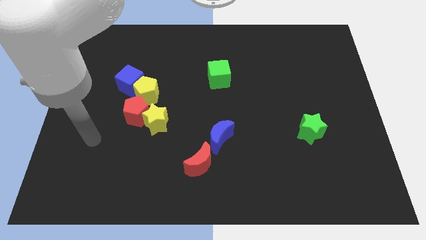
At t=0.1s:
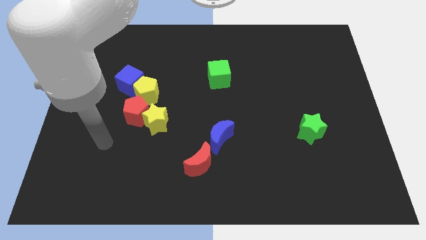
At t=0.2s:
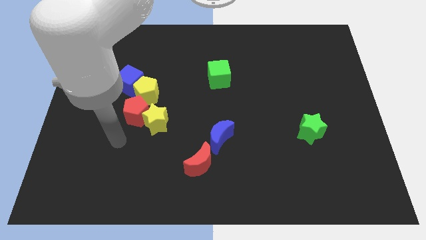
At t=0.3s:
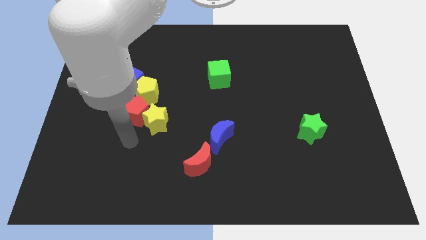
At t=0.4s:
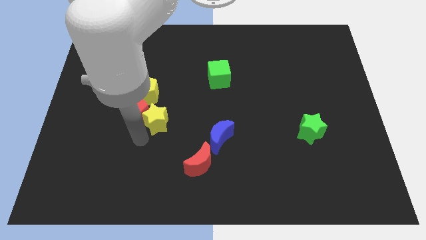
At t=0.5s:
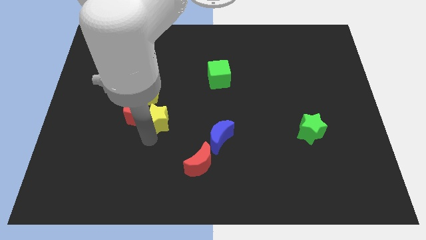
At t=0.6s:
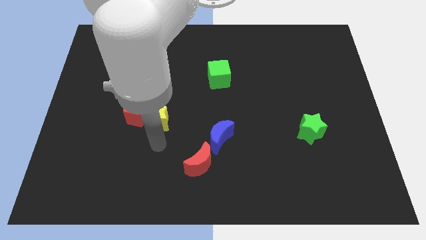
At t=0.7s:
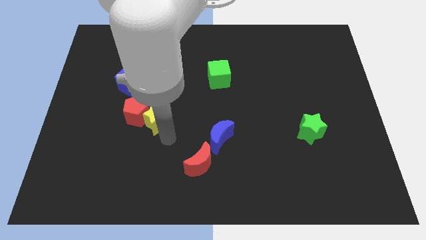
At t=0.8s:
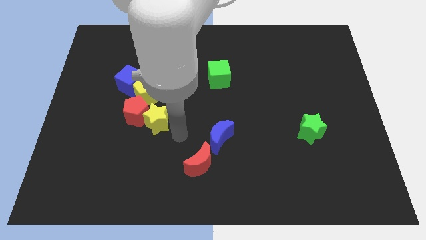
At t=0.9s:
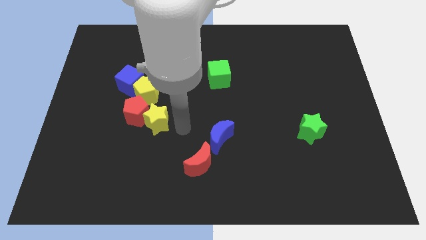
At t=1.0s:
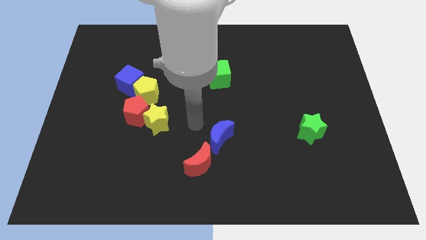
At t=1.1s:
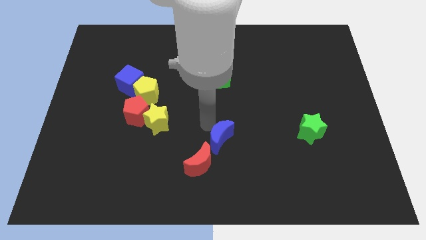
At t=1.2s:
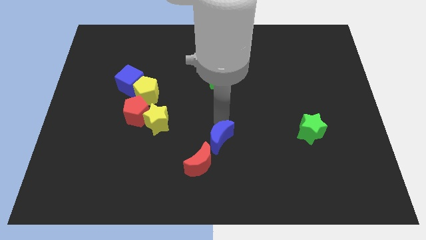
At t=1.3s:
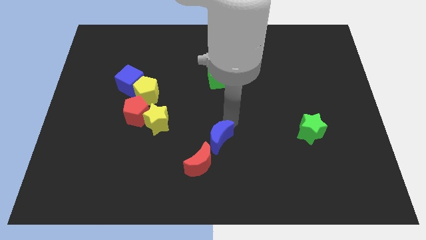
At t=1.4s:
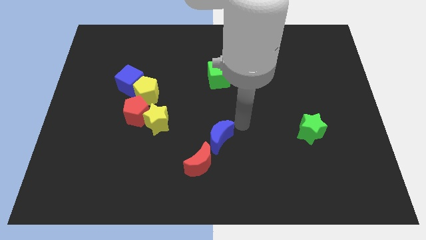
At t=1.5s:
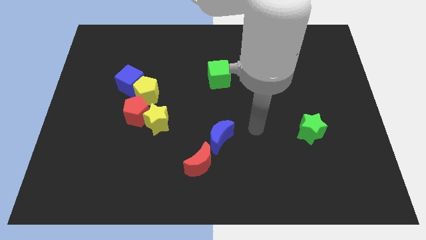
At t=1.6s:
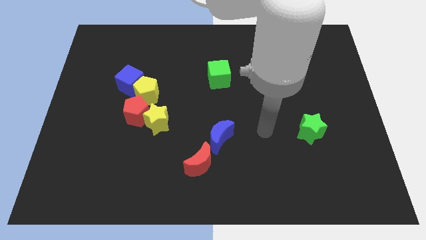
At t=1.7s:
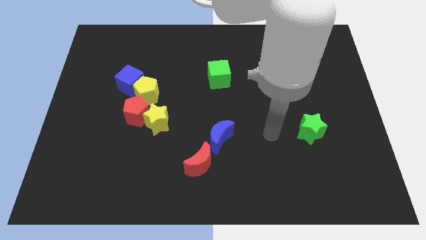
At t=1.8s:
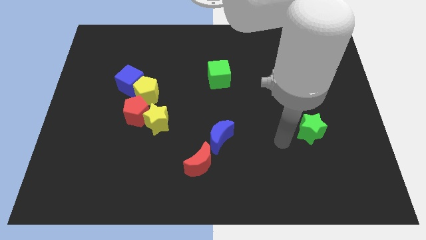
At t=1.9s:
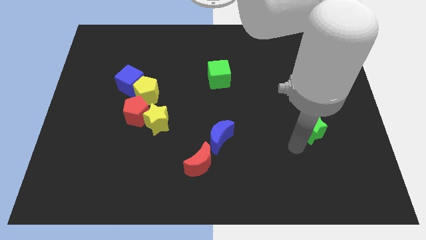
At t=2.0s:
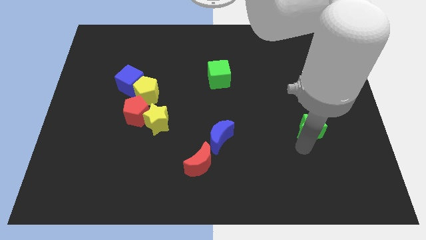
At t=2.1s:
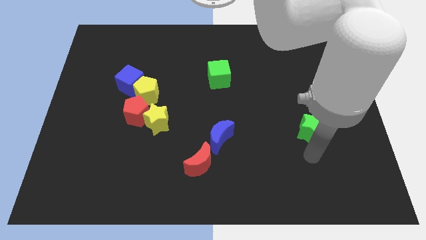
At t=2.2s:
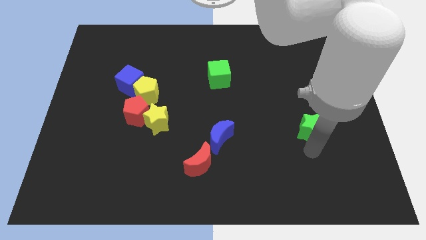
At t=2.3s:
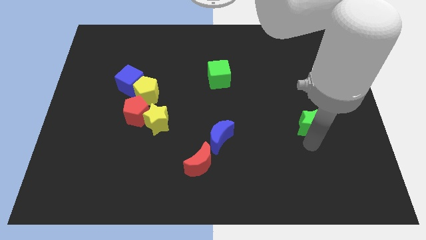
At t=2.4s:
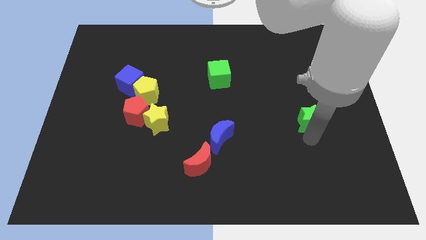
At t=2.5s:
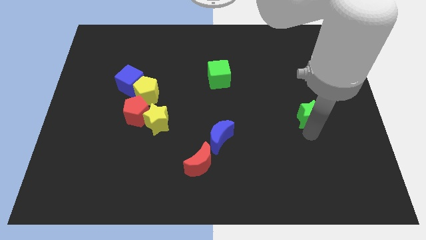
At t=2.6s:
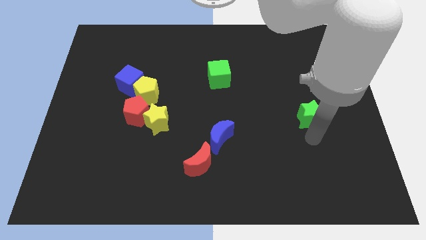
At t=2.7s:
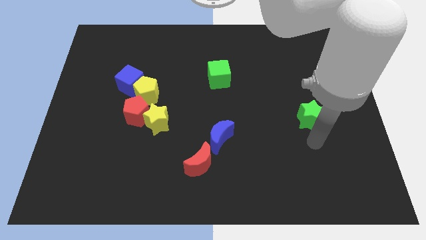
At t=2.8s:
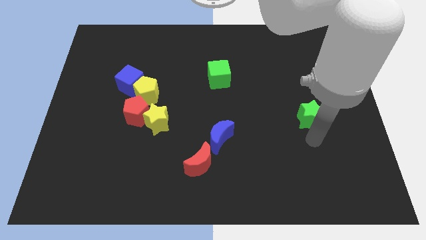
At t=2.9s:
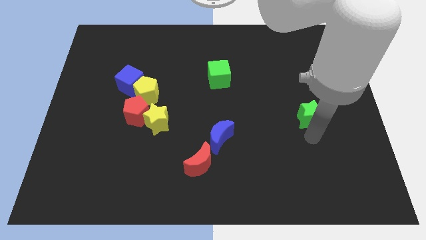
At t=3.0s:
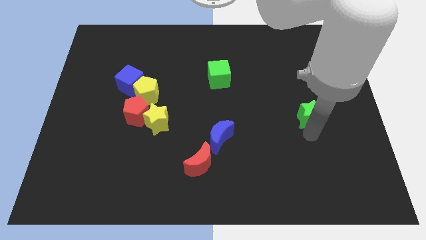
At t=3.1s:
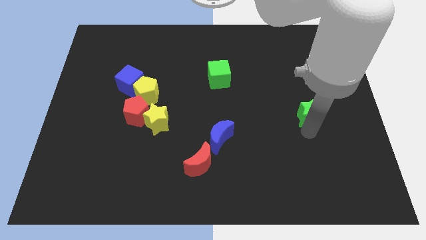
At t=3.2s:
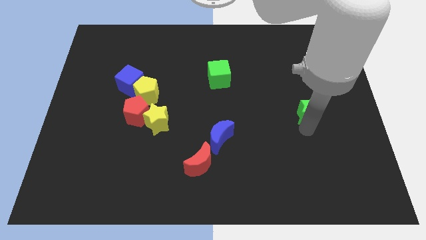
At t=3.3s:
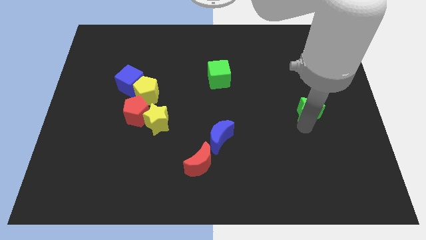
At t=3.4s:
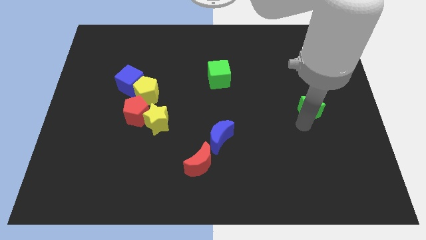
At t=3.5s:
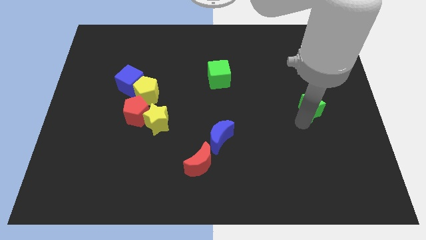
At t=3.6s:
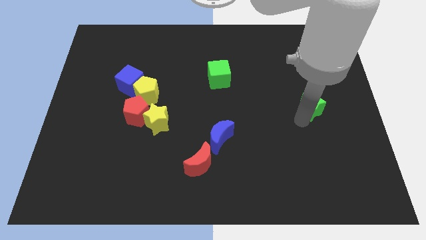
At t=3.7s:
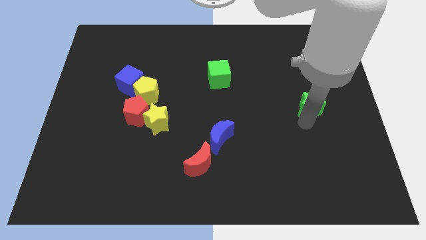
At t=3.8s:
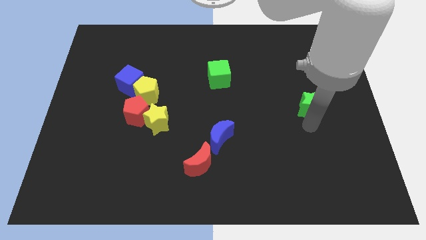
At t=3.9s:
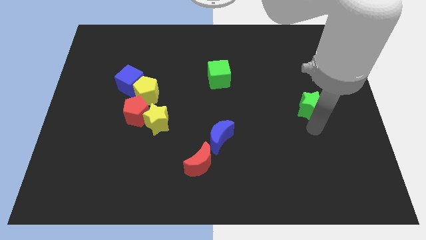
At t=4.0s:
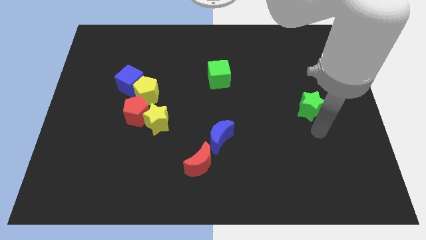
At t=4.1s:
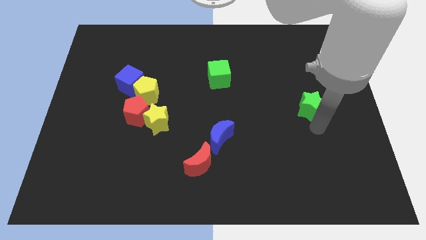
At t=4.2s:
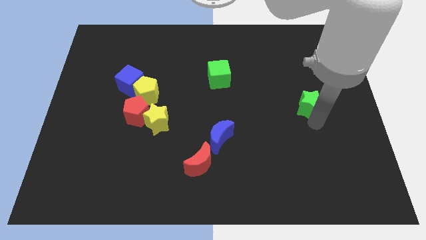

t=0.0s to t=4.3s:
slightly slide the green star upwards

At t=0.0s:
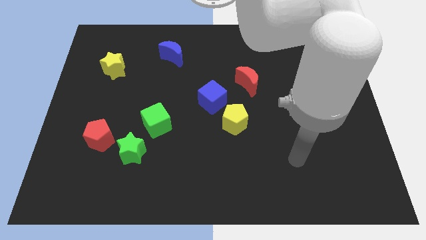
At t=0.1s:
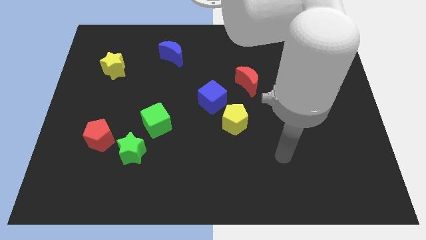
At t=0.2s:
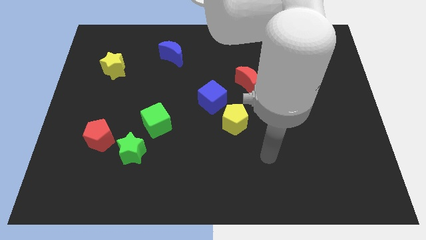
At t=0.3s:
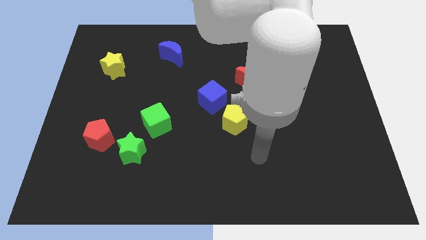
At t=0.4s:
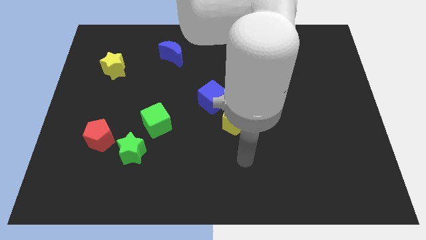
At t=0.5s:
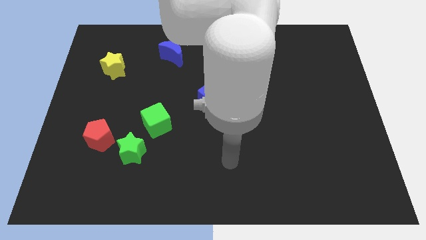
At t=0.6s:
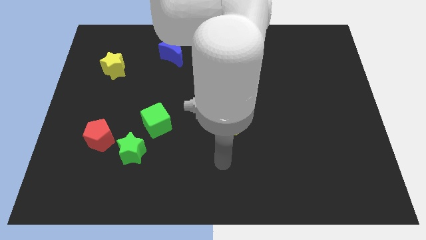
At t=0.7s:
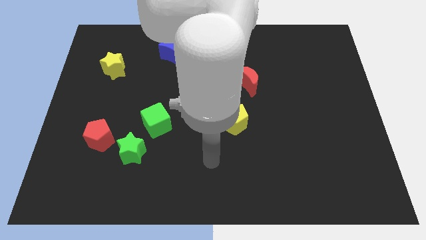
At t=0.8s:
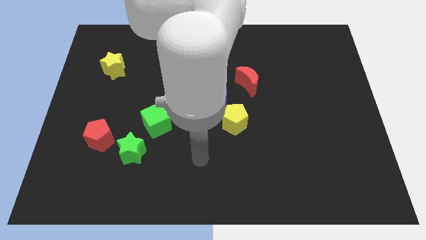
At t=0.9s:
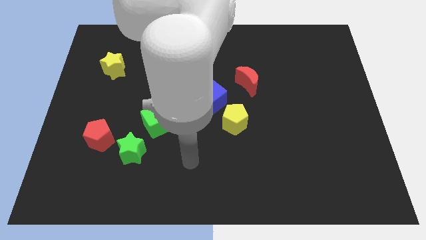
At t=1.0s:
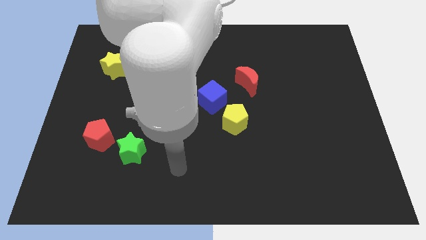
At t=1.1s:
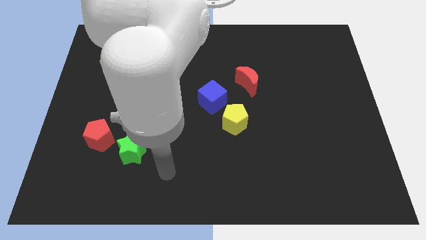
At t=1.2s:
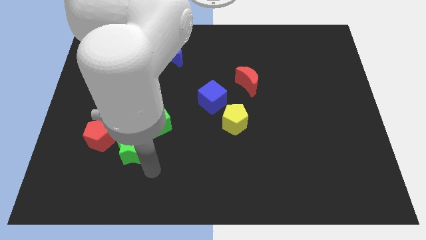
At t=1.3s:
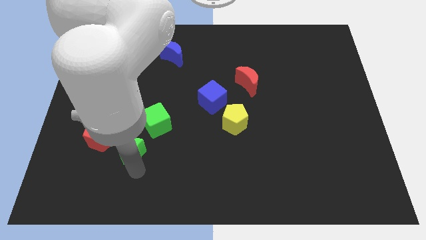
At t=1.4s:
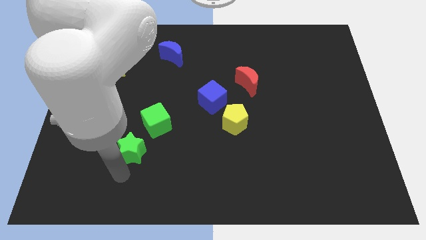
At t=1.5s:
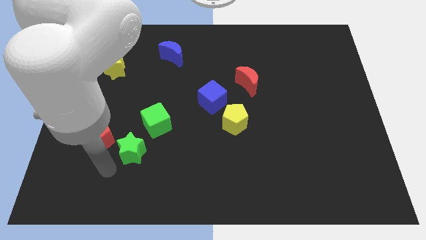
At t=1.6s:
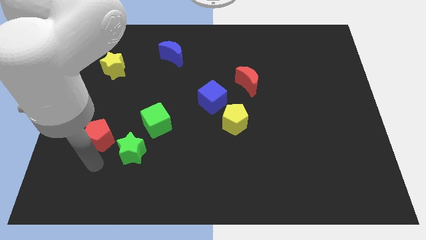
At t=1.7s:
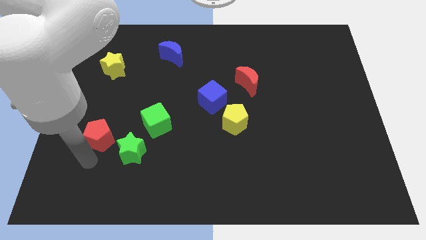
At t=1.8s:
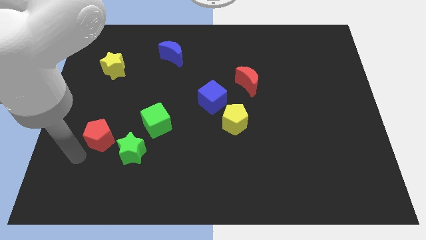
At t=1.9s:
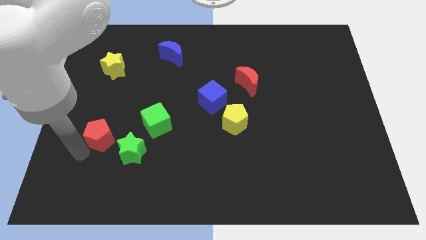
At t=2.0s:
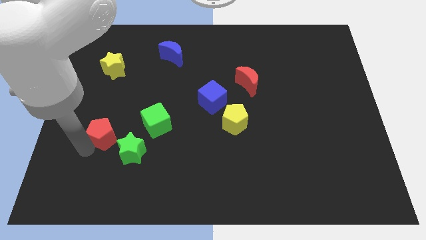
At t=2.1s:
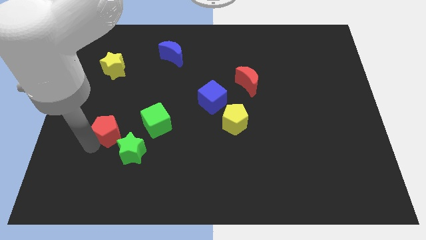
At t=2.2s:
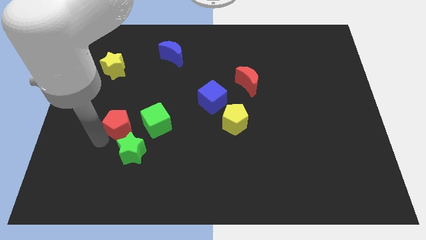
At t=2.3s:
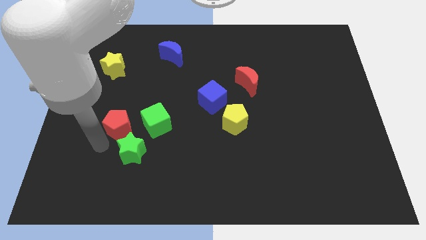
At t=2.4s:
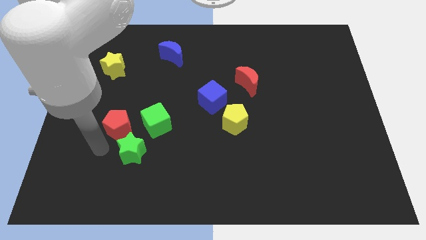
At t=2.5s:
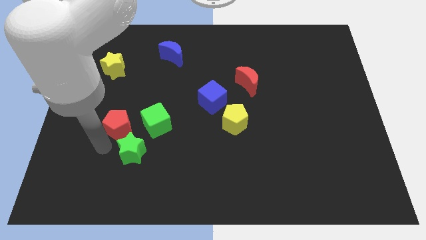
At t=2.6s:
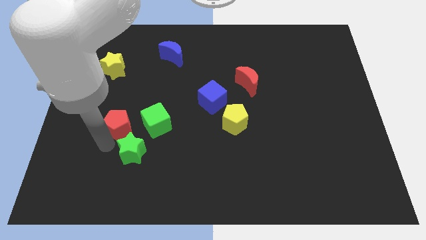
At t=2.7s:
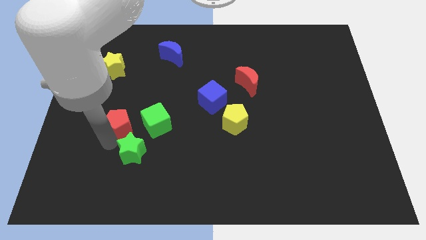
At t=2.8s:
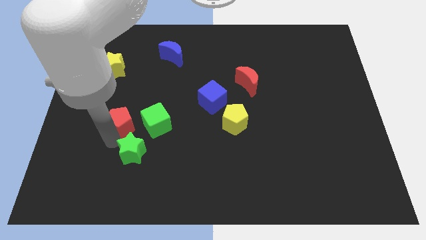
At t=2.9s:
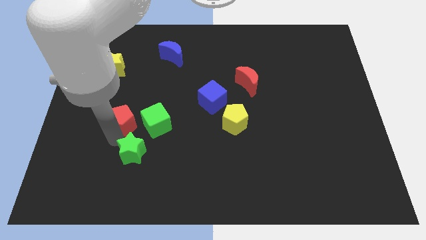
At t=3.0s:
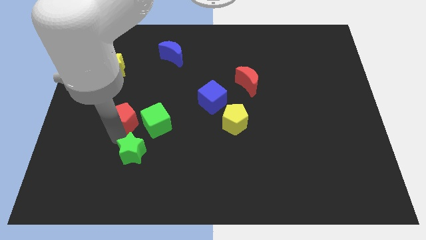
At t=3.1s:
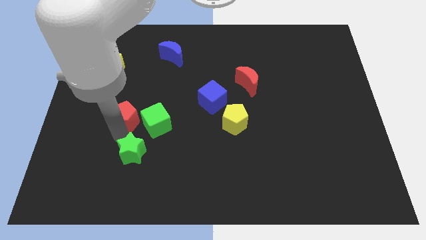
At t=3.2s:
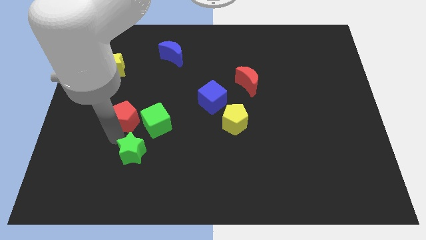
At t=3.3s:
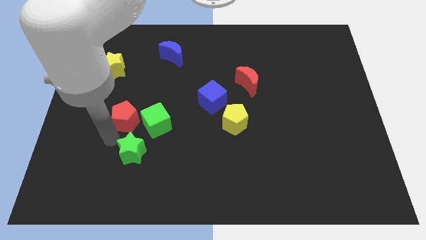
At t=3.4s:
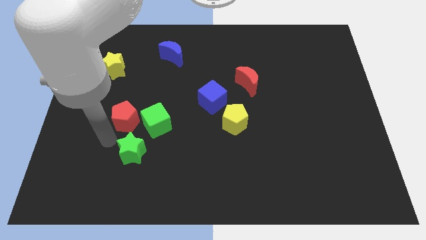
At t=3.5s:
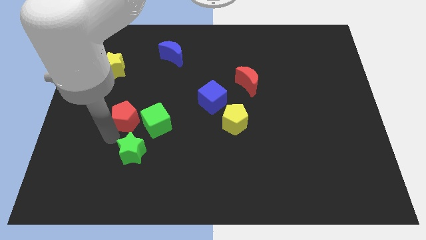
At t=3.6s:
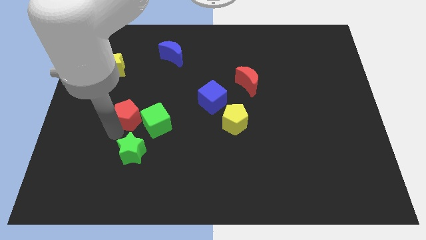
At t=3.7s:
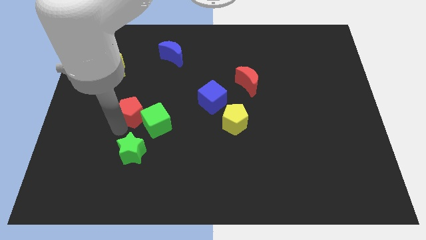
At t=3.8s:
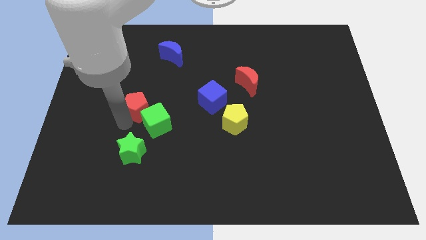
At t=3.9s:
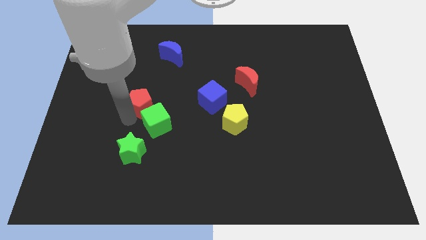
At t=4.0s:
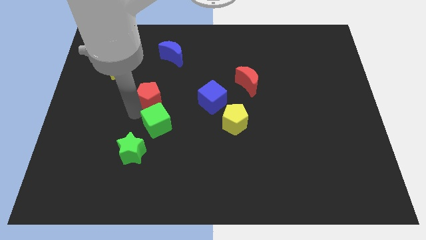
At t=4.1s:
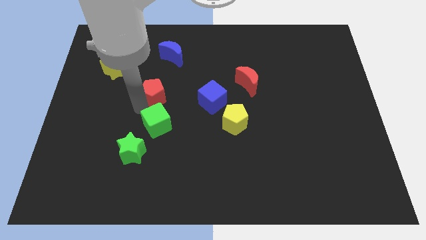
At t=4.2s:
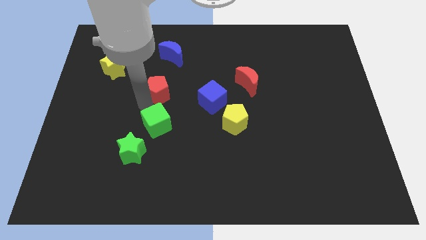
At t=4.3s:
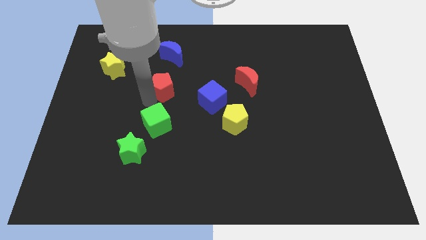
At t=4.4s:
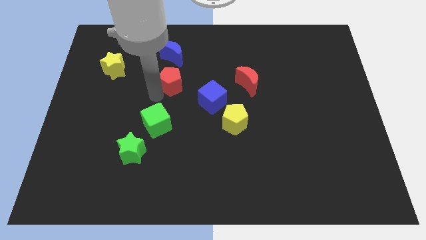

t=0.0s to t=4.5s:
push the red pentagon upwards and then right
